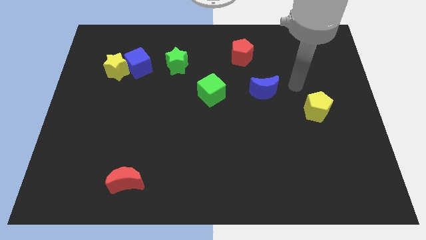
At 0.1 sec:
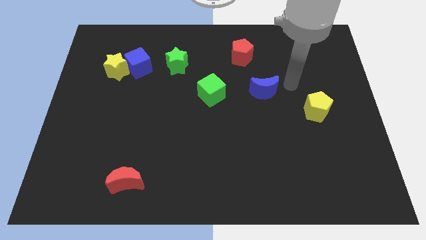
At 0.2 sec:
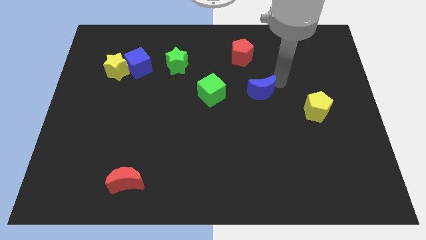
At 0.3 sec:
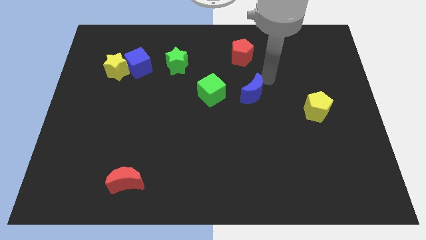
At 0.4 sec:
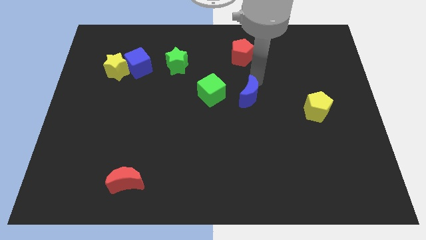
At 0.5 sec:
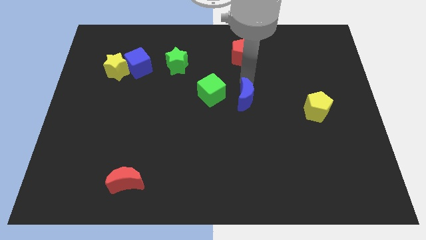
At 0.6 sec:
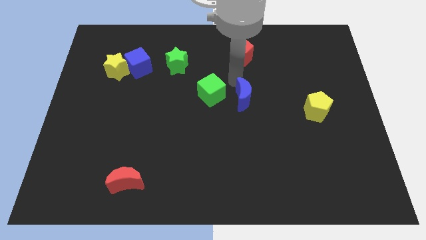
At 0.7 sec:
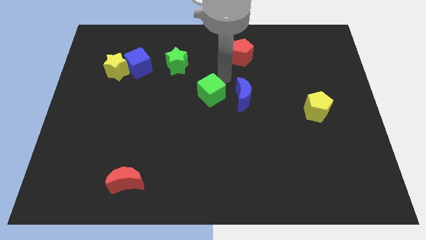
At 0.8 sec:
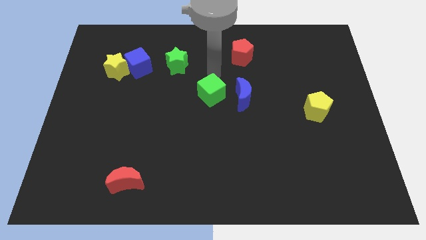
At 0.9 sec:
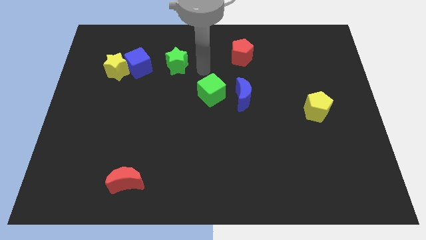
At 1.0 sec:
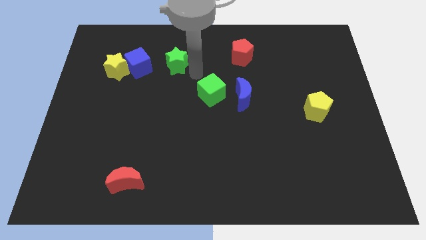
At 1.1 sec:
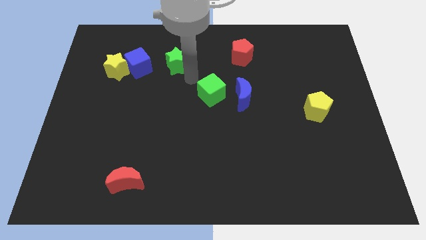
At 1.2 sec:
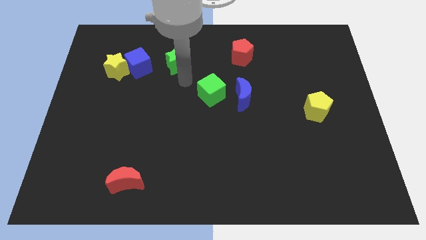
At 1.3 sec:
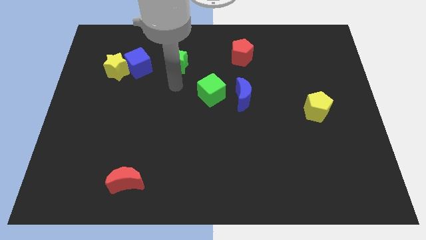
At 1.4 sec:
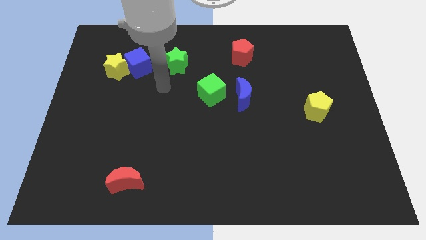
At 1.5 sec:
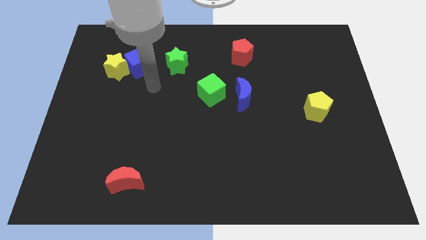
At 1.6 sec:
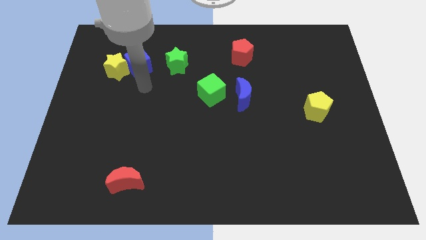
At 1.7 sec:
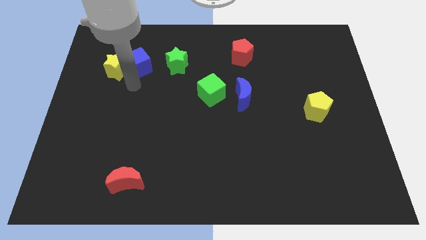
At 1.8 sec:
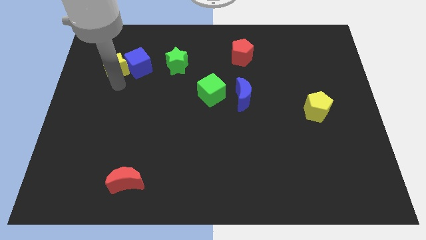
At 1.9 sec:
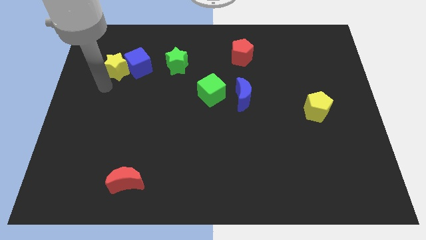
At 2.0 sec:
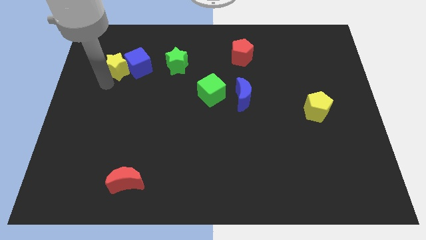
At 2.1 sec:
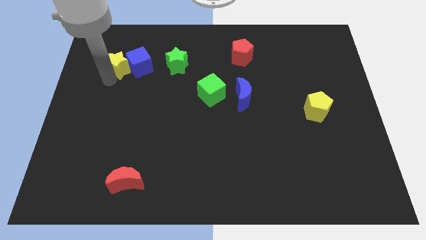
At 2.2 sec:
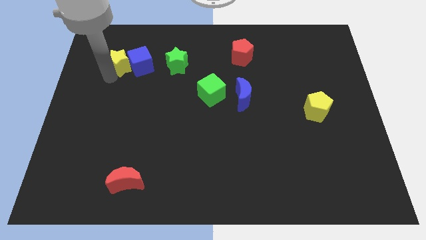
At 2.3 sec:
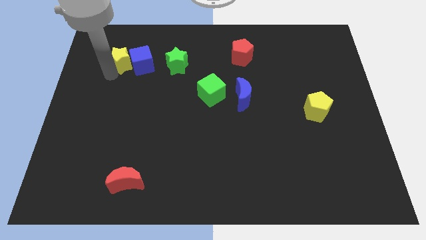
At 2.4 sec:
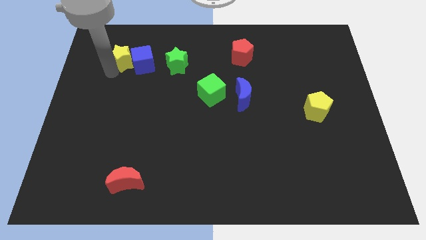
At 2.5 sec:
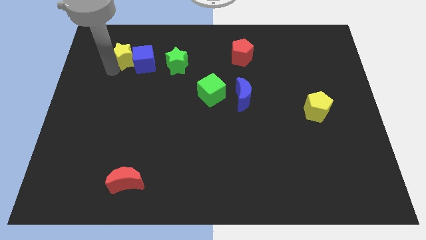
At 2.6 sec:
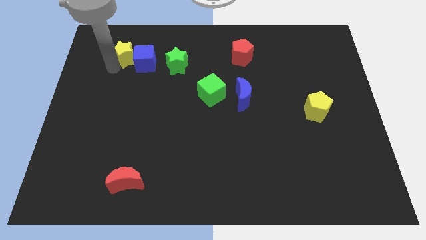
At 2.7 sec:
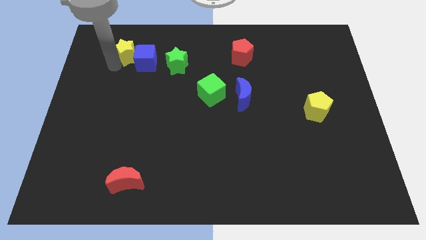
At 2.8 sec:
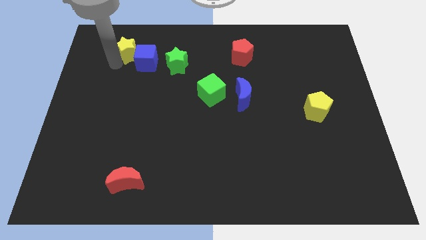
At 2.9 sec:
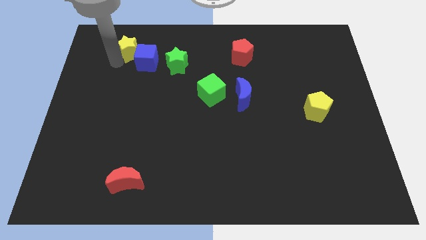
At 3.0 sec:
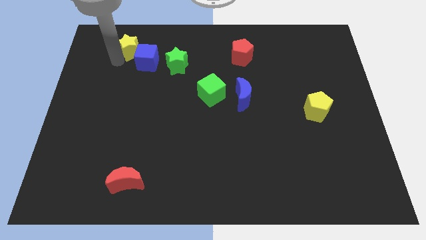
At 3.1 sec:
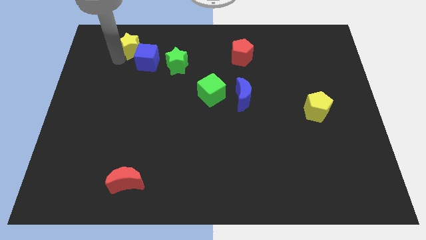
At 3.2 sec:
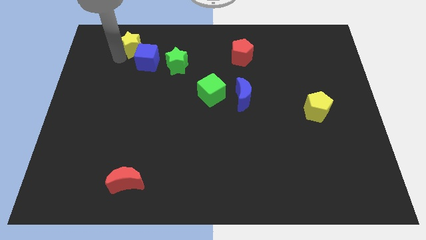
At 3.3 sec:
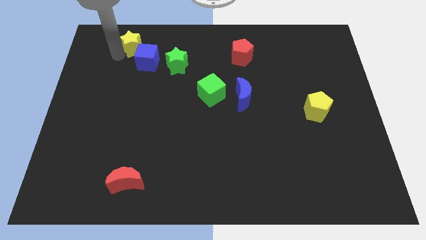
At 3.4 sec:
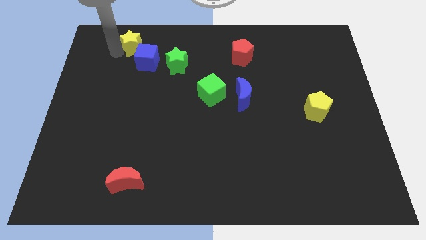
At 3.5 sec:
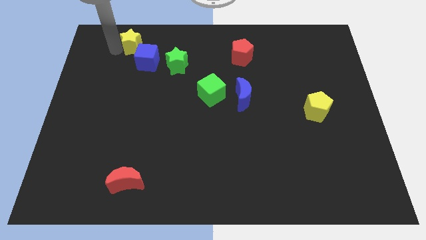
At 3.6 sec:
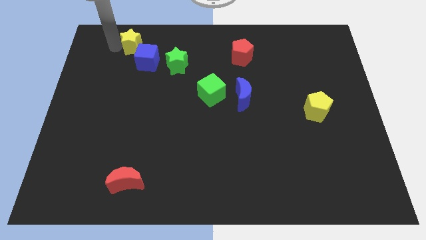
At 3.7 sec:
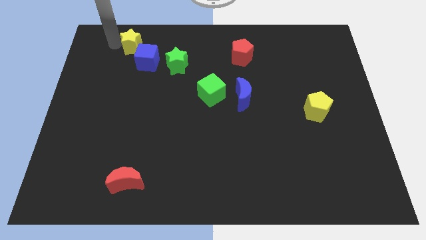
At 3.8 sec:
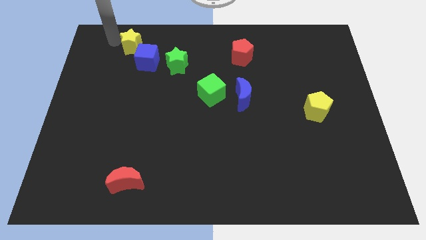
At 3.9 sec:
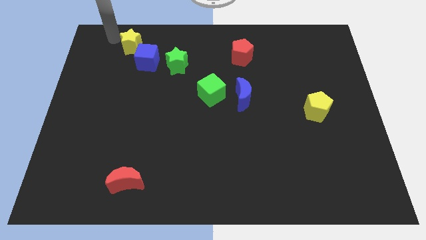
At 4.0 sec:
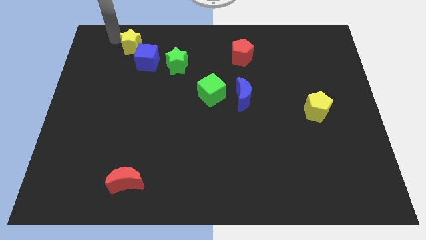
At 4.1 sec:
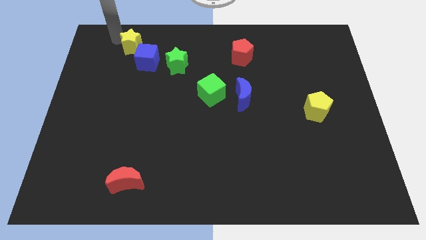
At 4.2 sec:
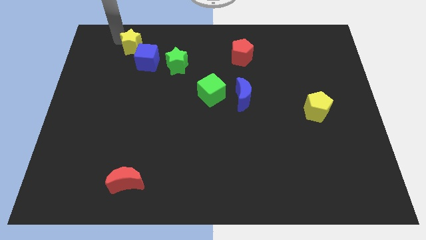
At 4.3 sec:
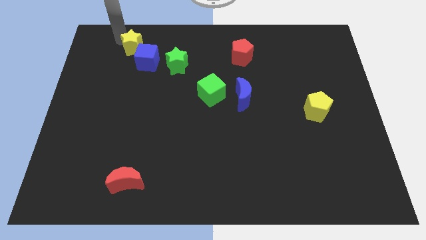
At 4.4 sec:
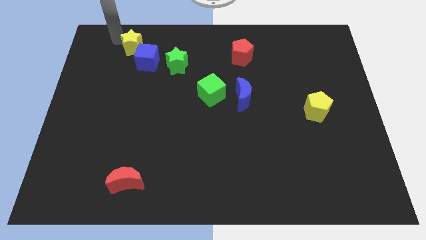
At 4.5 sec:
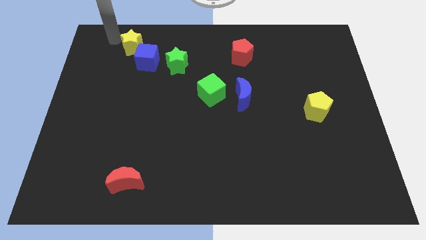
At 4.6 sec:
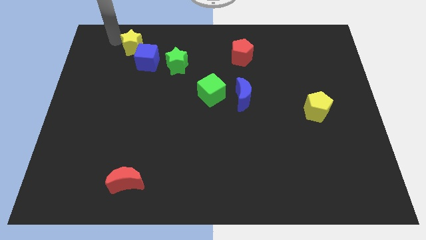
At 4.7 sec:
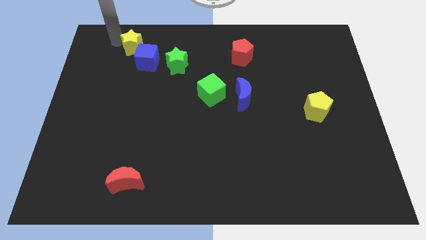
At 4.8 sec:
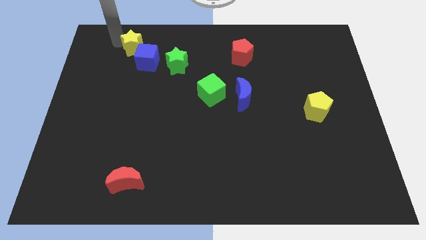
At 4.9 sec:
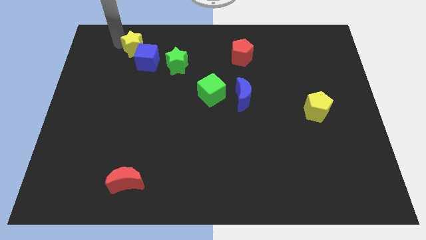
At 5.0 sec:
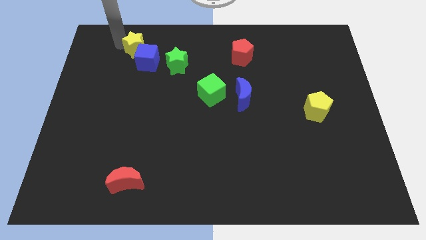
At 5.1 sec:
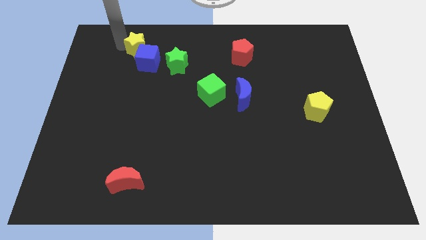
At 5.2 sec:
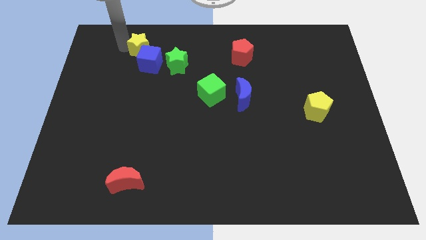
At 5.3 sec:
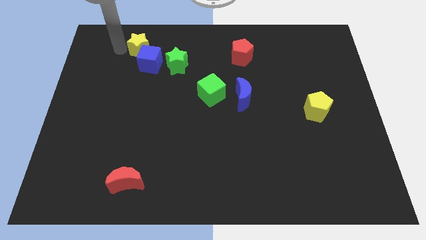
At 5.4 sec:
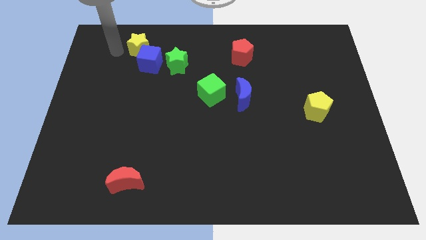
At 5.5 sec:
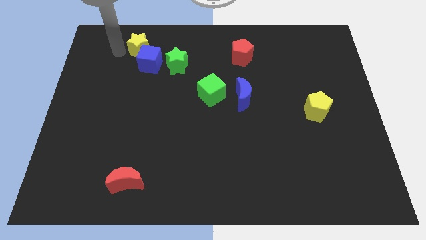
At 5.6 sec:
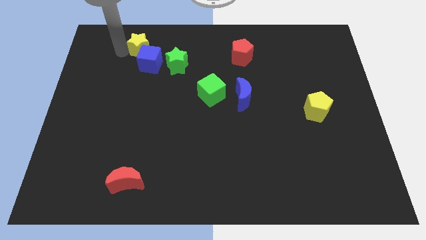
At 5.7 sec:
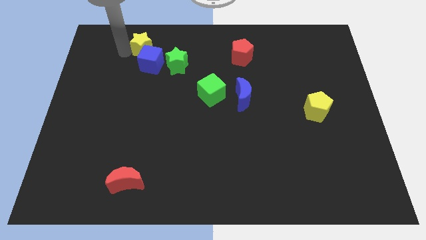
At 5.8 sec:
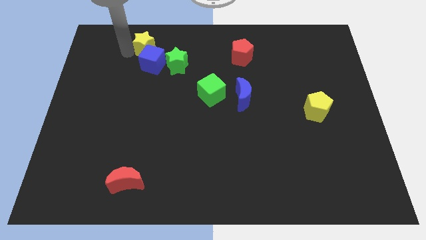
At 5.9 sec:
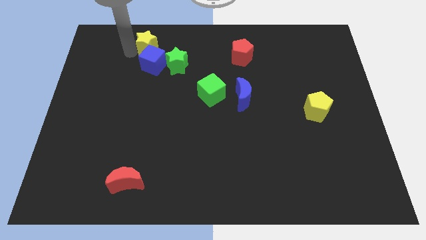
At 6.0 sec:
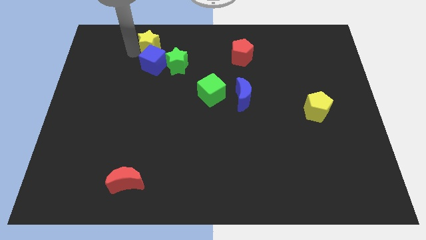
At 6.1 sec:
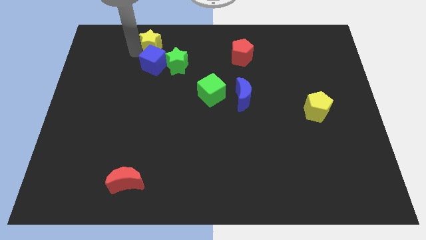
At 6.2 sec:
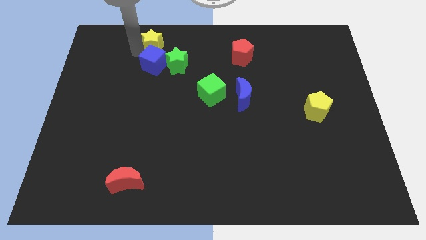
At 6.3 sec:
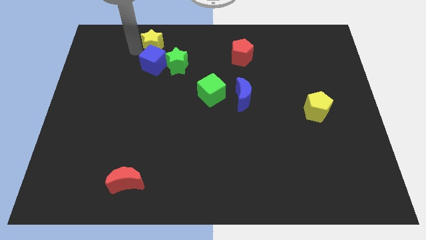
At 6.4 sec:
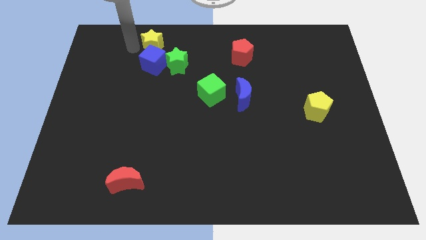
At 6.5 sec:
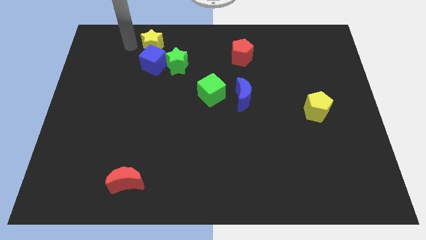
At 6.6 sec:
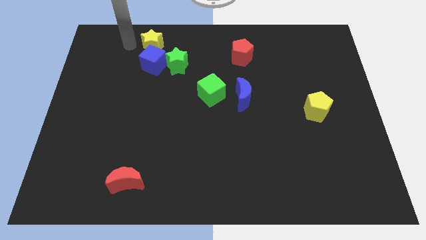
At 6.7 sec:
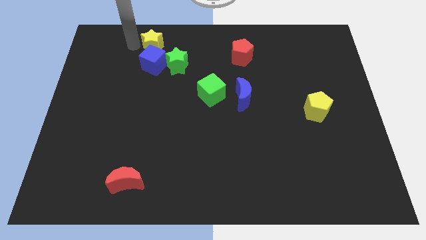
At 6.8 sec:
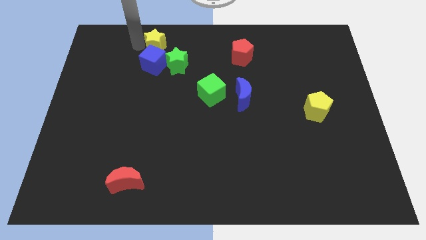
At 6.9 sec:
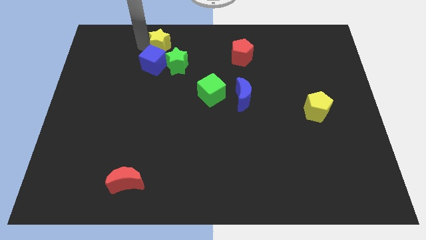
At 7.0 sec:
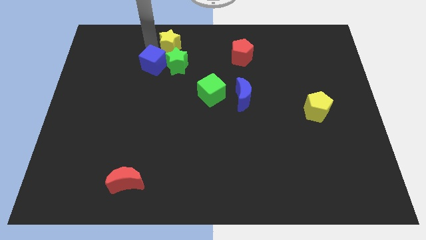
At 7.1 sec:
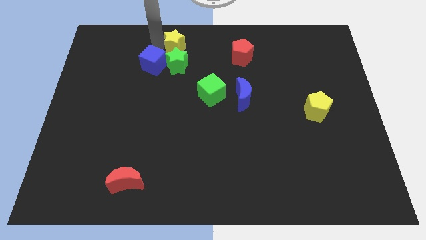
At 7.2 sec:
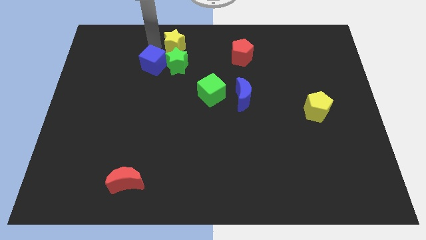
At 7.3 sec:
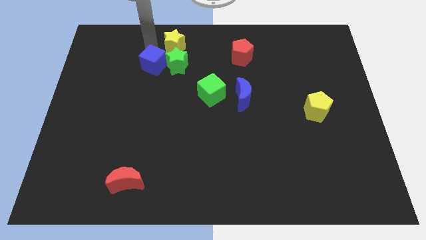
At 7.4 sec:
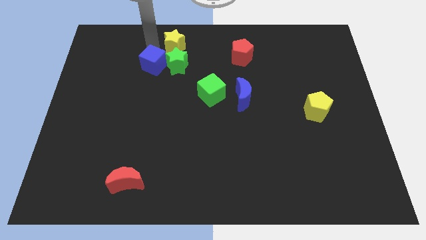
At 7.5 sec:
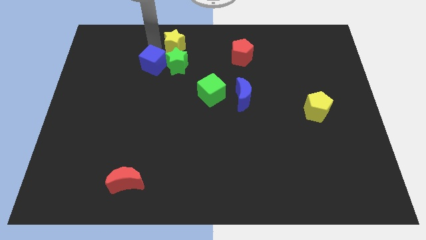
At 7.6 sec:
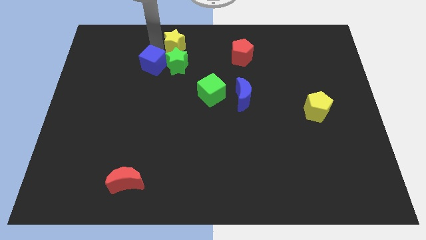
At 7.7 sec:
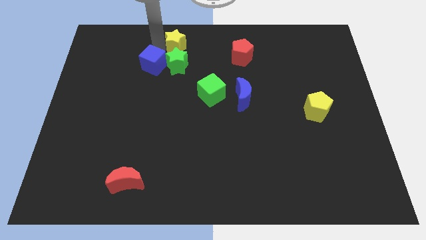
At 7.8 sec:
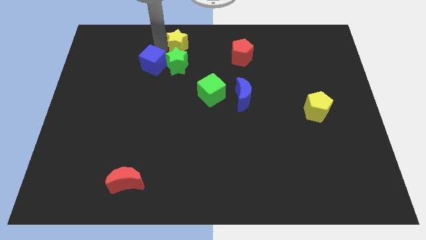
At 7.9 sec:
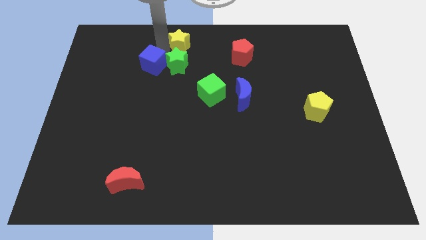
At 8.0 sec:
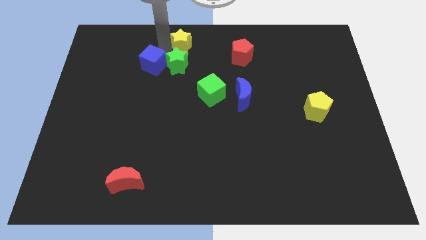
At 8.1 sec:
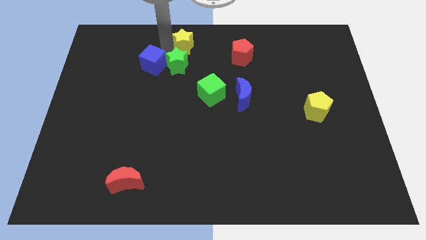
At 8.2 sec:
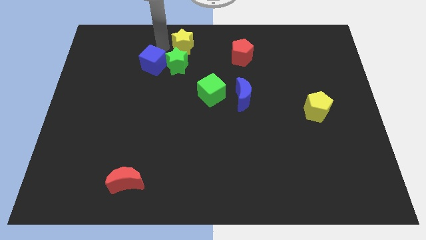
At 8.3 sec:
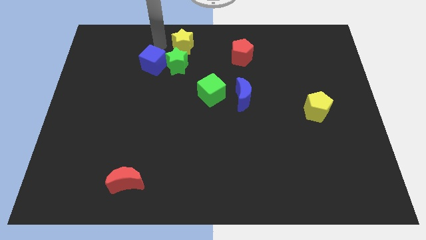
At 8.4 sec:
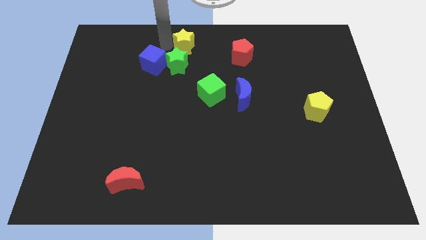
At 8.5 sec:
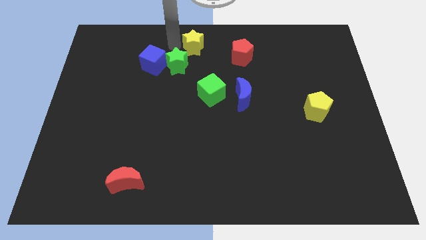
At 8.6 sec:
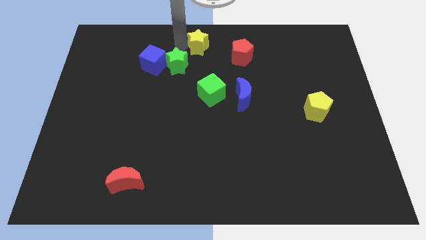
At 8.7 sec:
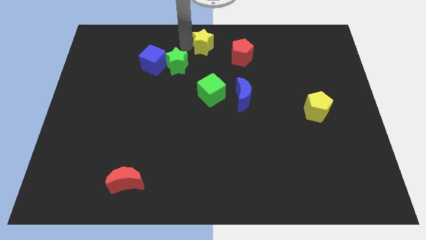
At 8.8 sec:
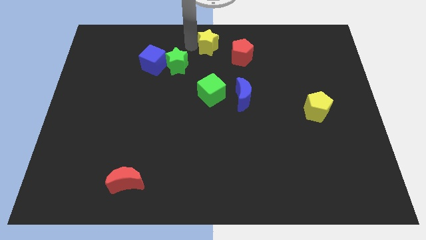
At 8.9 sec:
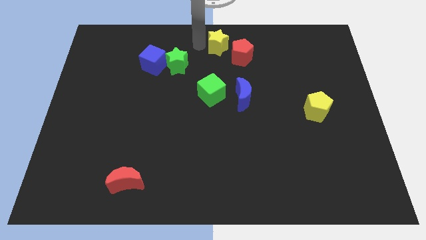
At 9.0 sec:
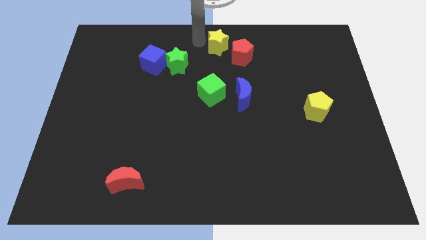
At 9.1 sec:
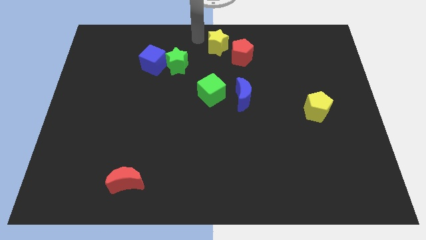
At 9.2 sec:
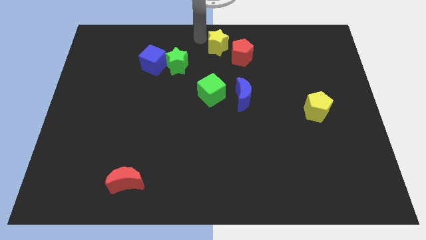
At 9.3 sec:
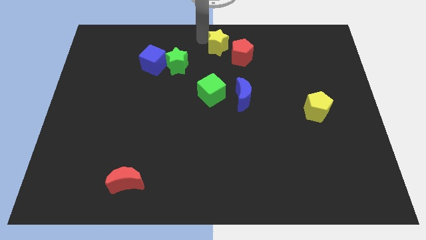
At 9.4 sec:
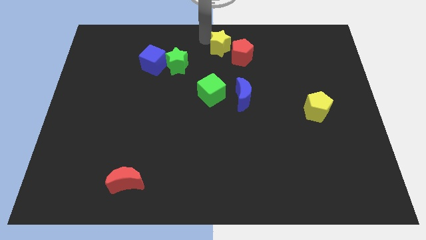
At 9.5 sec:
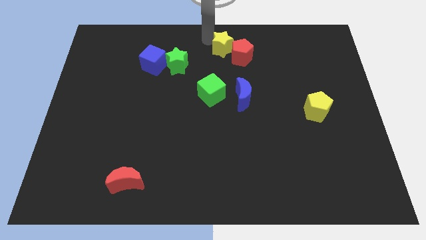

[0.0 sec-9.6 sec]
put the yellow star towards the red pentagon
